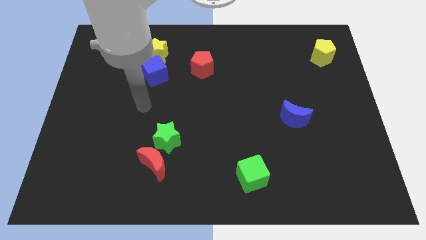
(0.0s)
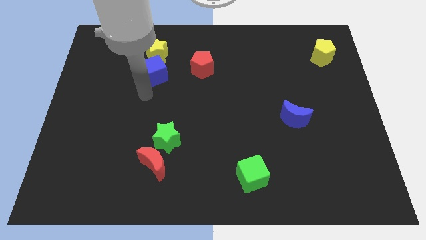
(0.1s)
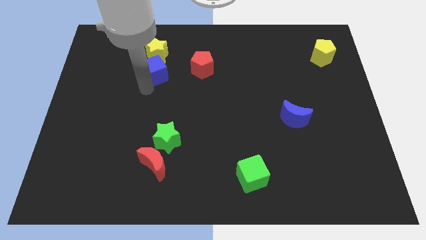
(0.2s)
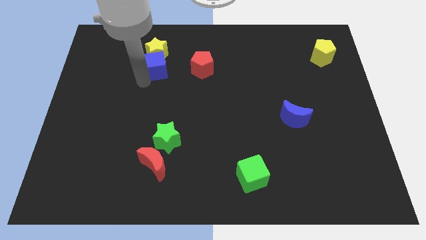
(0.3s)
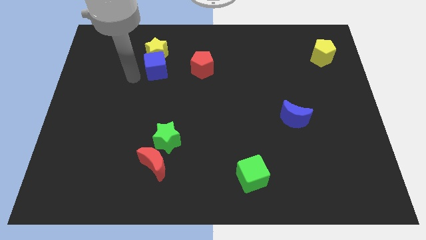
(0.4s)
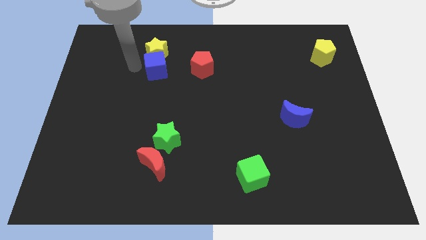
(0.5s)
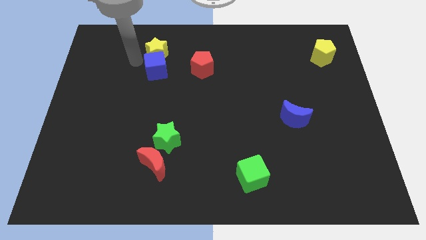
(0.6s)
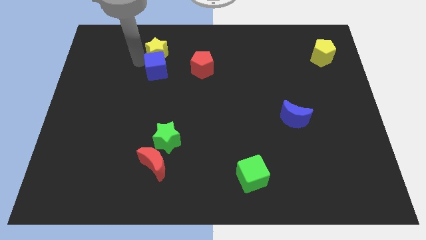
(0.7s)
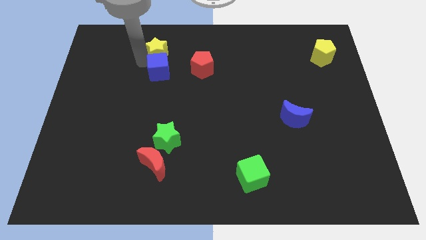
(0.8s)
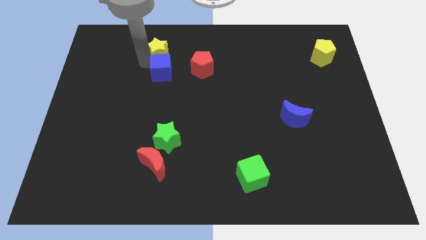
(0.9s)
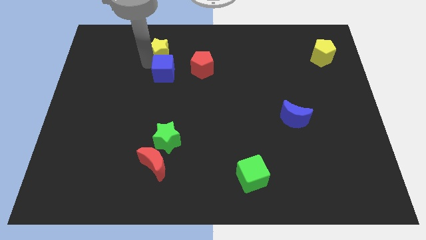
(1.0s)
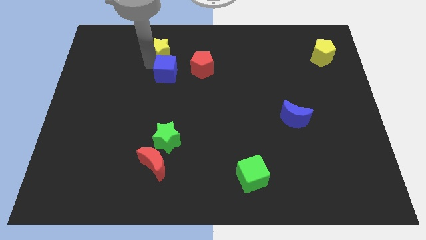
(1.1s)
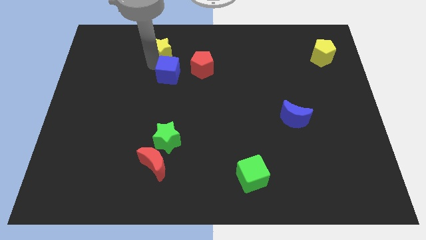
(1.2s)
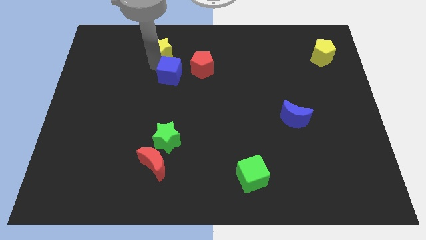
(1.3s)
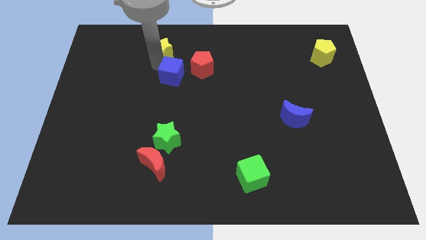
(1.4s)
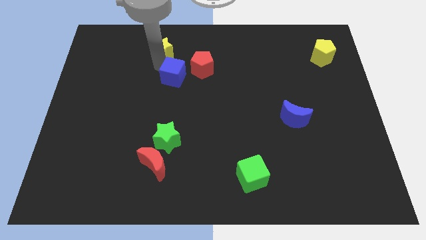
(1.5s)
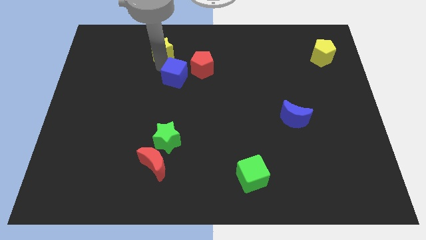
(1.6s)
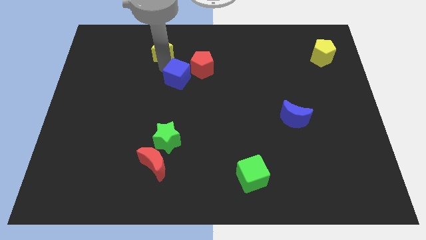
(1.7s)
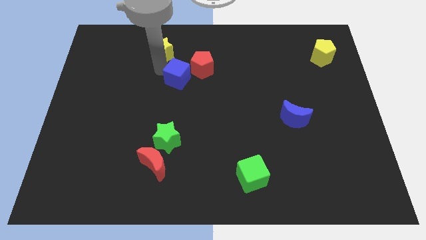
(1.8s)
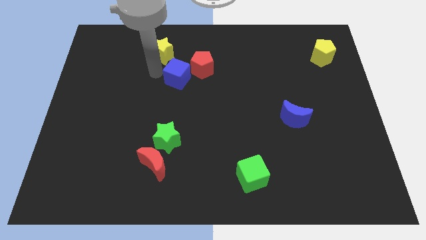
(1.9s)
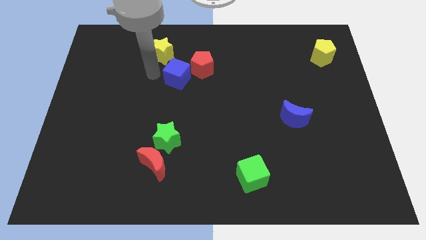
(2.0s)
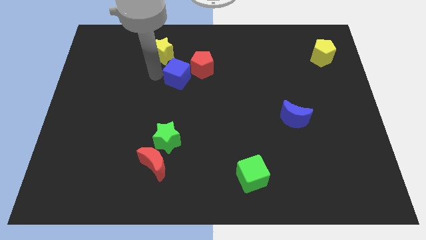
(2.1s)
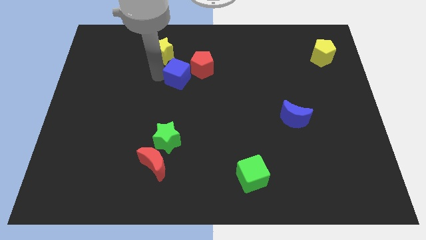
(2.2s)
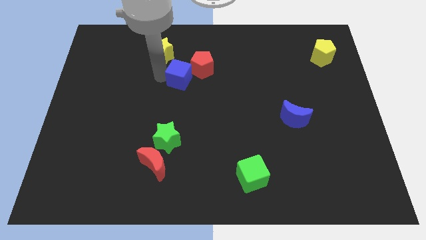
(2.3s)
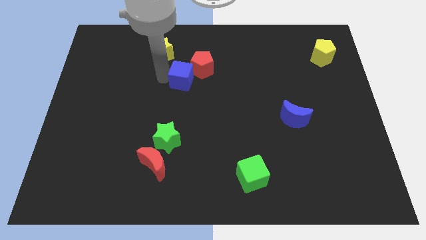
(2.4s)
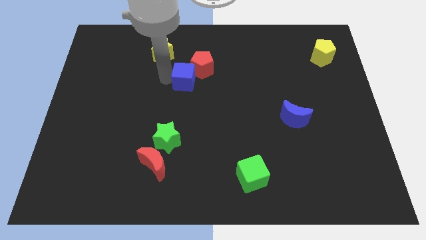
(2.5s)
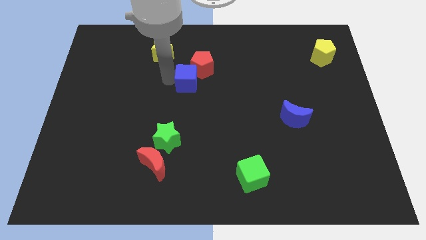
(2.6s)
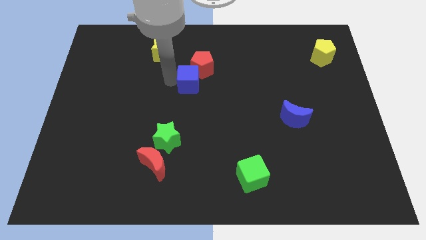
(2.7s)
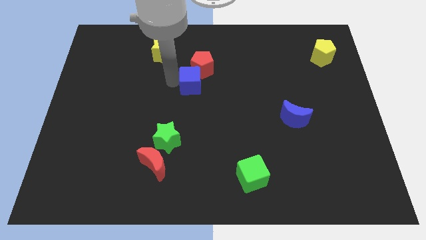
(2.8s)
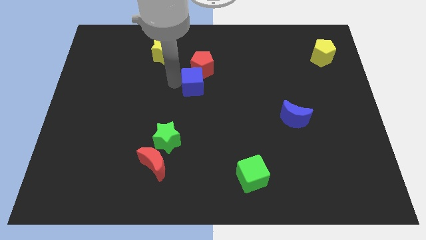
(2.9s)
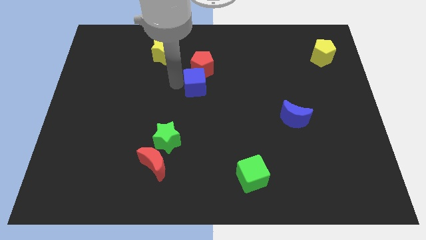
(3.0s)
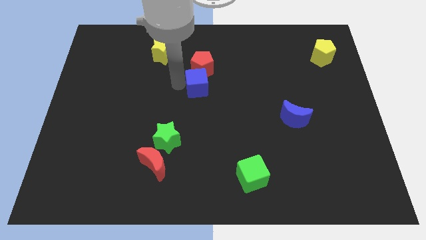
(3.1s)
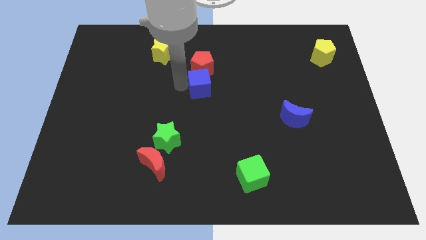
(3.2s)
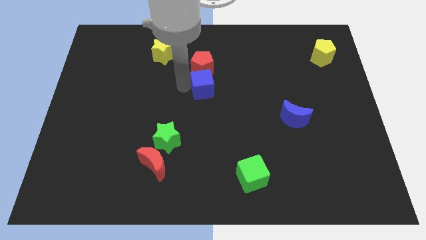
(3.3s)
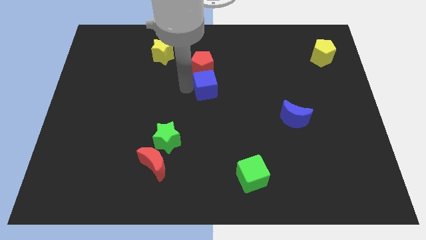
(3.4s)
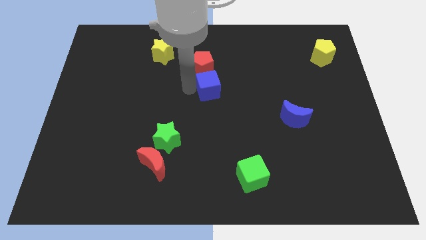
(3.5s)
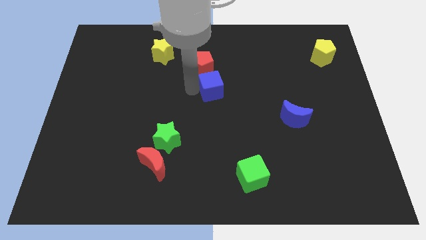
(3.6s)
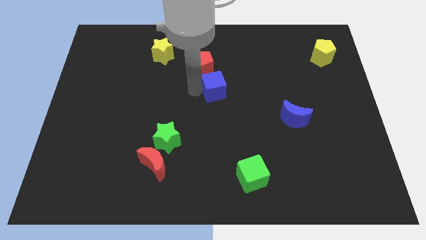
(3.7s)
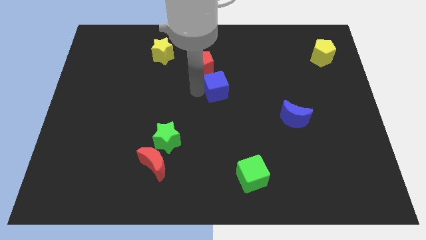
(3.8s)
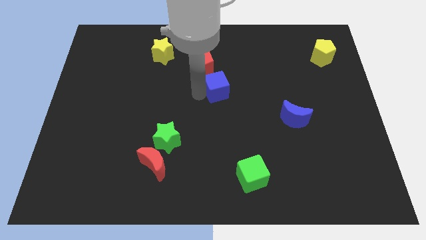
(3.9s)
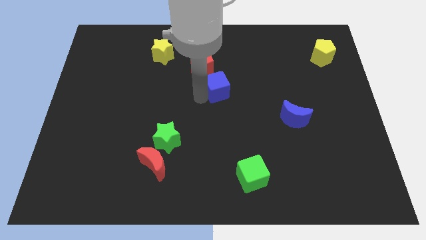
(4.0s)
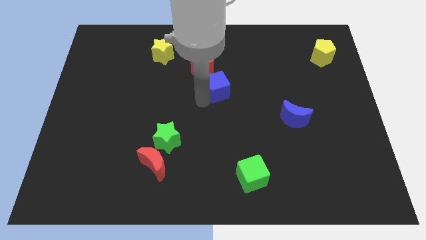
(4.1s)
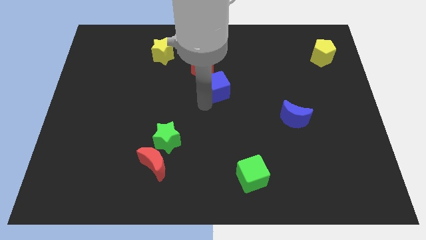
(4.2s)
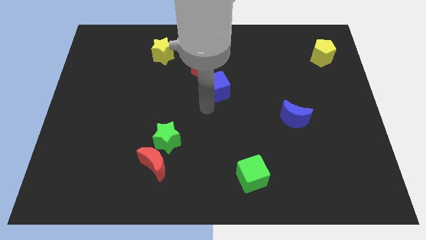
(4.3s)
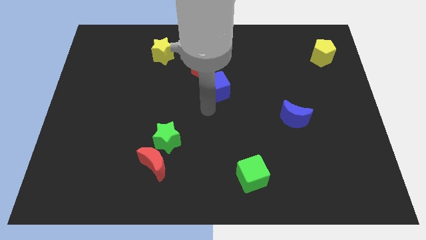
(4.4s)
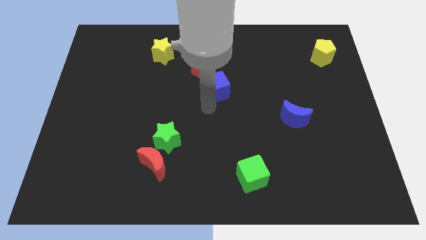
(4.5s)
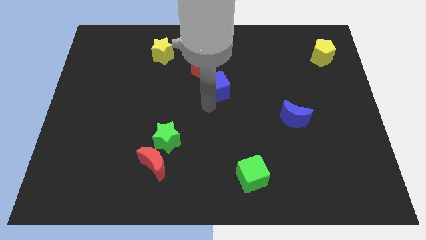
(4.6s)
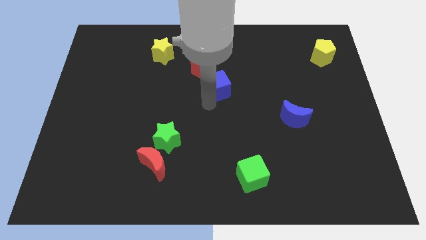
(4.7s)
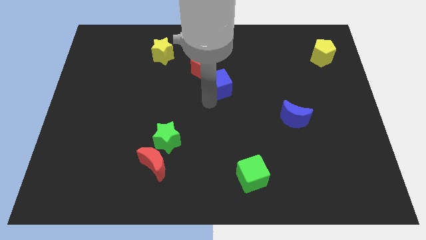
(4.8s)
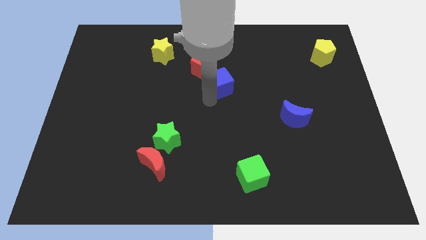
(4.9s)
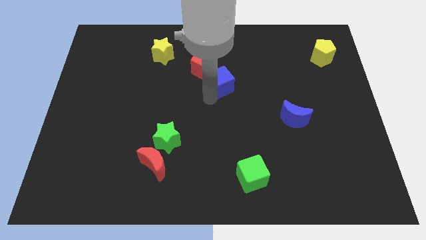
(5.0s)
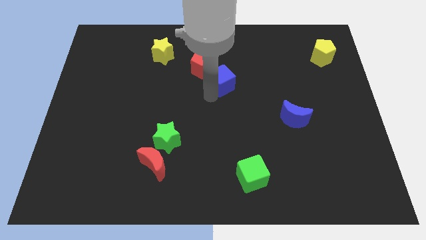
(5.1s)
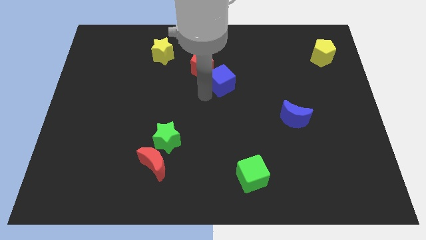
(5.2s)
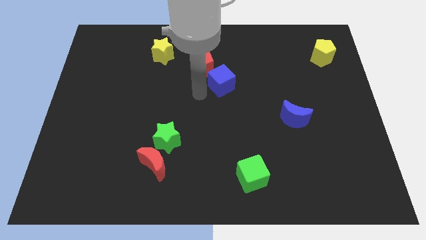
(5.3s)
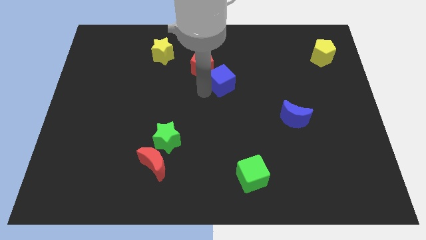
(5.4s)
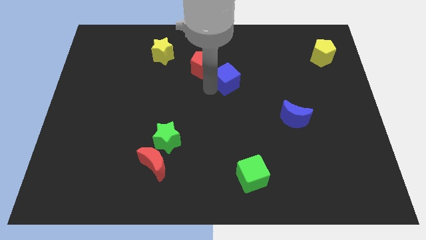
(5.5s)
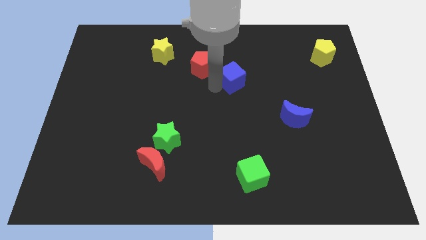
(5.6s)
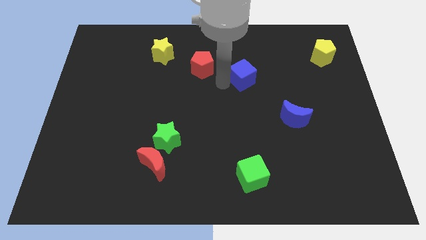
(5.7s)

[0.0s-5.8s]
move the blue cube to the right

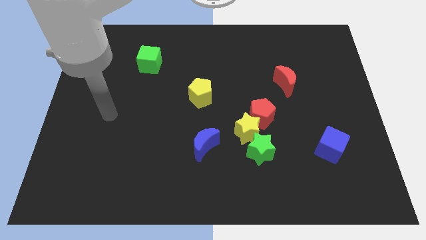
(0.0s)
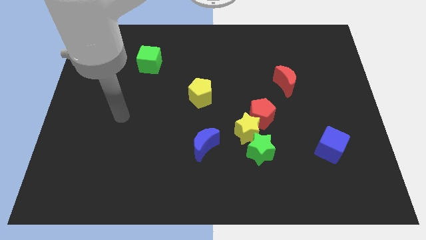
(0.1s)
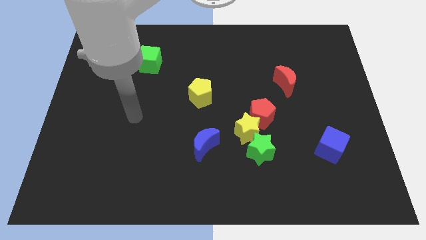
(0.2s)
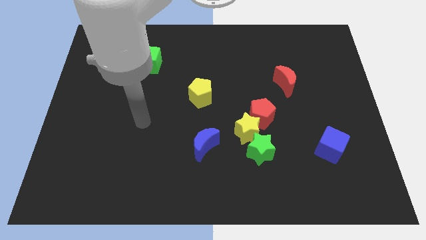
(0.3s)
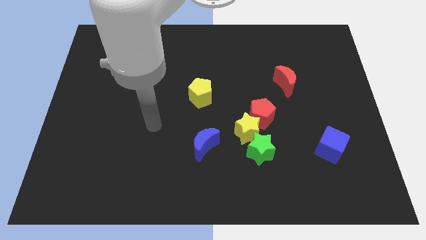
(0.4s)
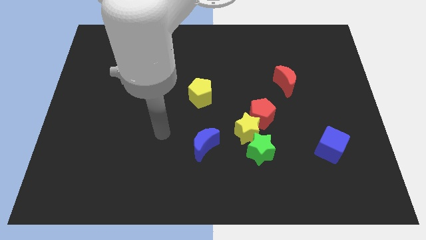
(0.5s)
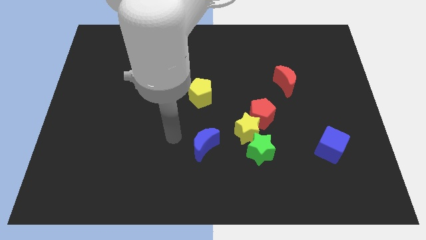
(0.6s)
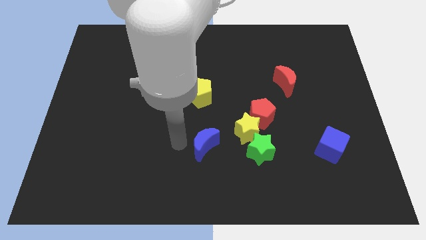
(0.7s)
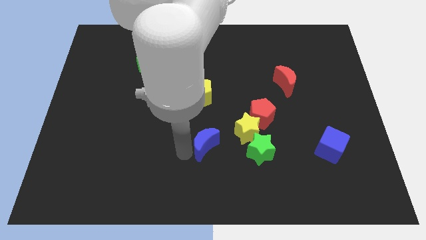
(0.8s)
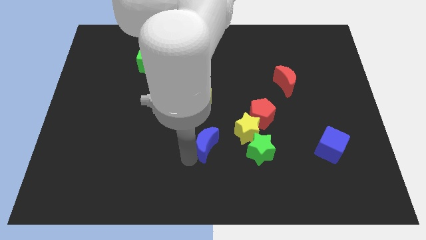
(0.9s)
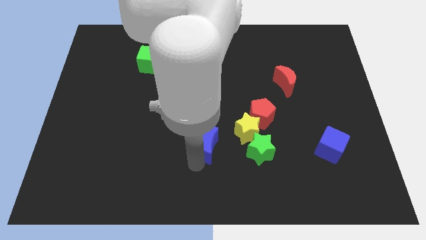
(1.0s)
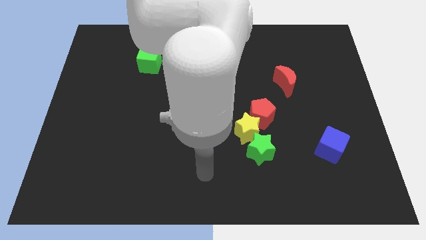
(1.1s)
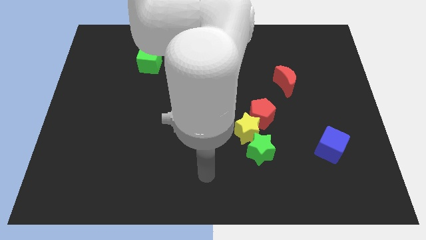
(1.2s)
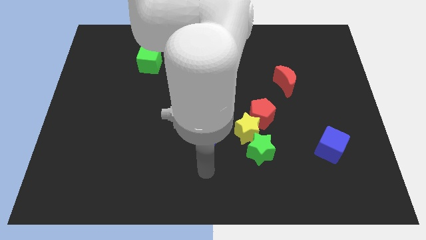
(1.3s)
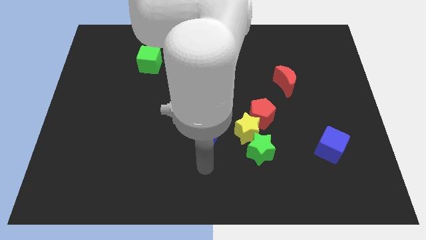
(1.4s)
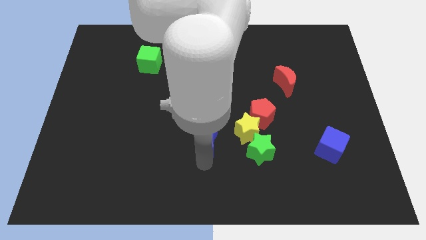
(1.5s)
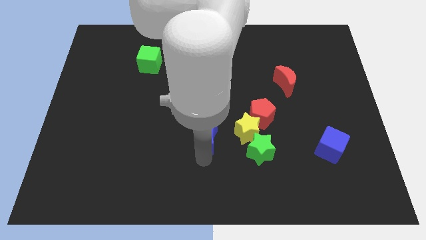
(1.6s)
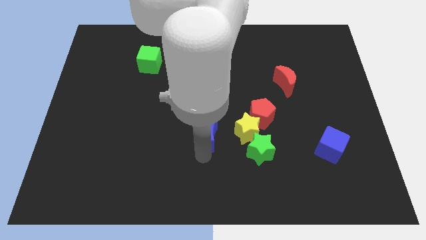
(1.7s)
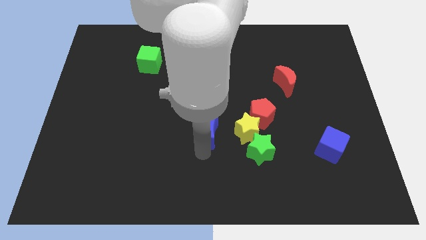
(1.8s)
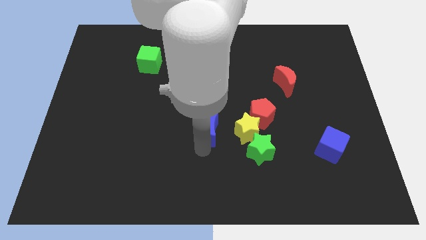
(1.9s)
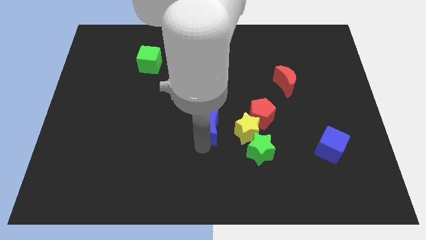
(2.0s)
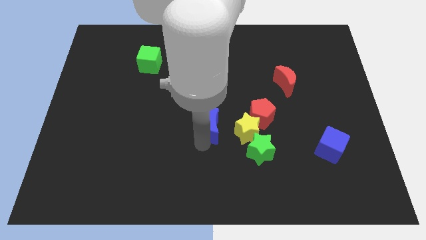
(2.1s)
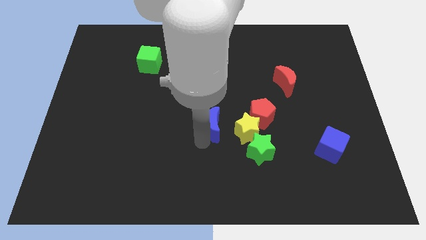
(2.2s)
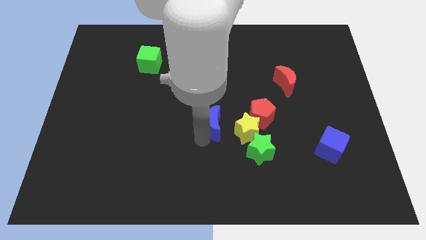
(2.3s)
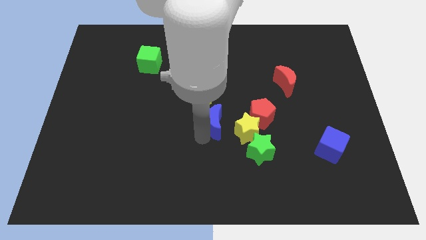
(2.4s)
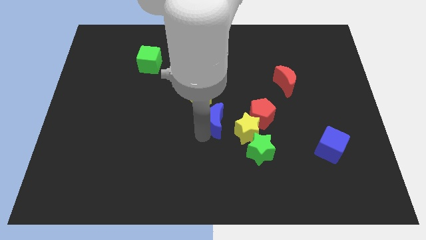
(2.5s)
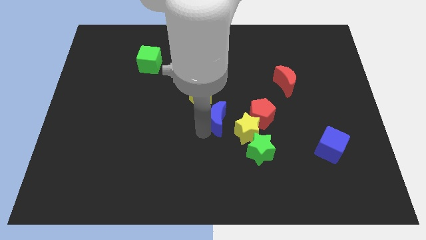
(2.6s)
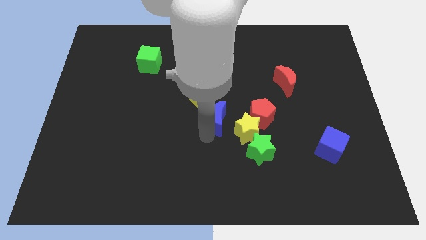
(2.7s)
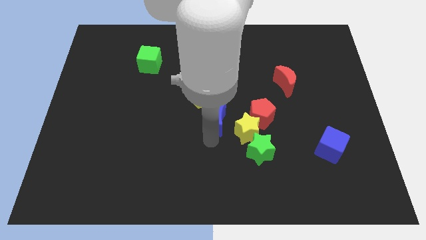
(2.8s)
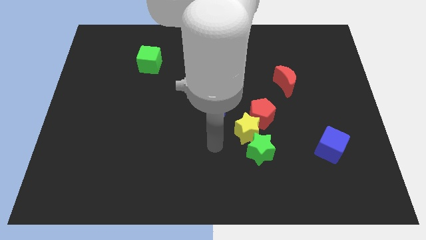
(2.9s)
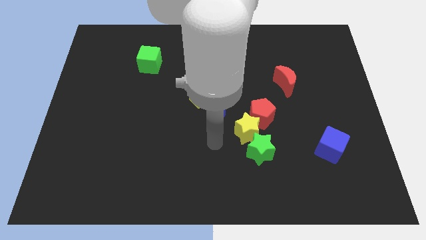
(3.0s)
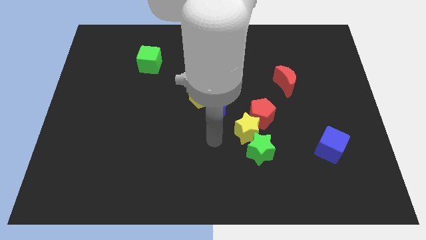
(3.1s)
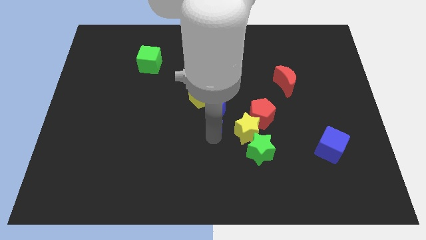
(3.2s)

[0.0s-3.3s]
move the blue moon a little up
